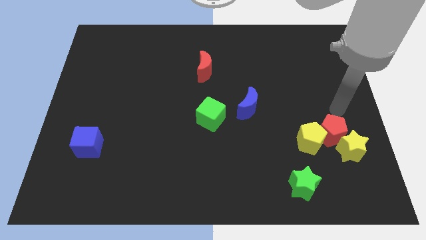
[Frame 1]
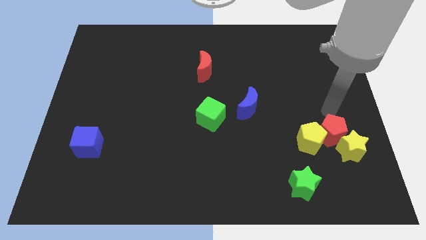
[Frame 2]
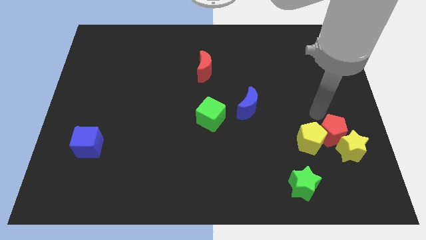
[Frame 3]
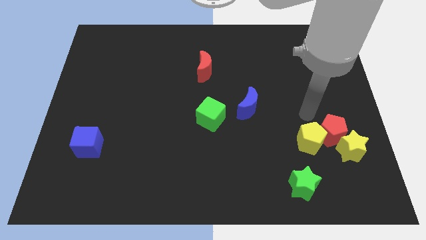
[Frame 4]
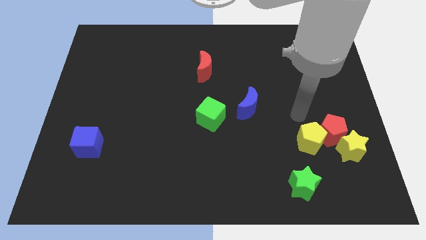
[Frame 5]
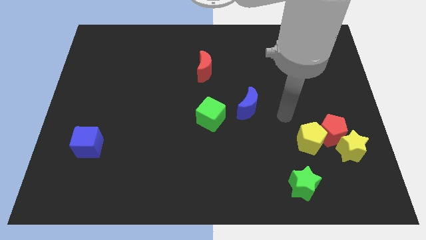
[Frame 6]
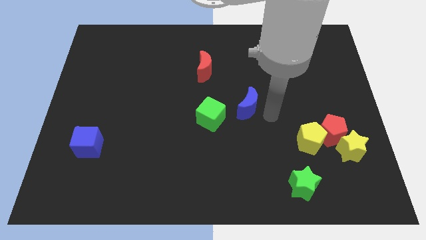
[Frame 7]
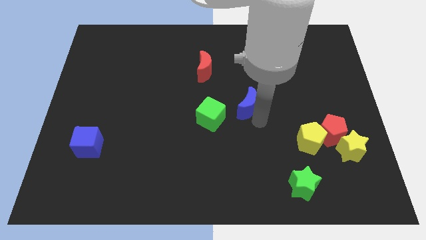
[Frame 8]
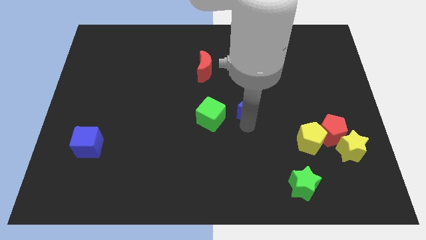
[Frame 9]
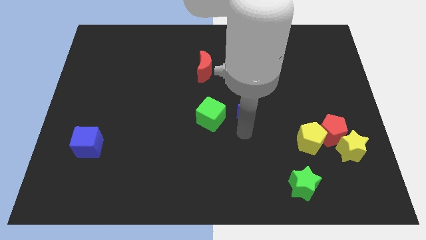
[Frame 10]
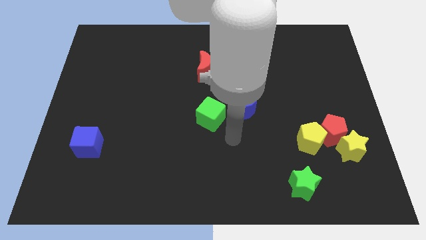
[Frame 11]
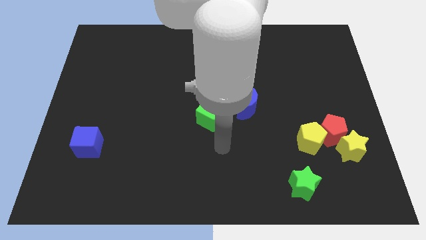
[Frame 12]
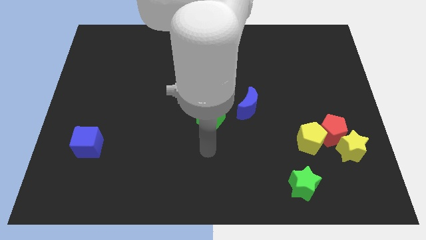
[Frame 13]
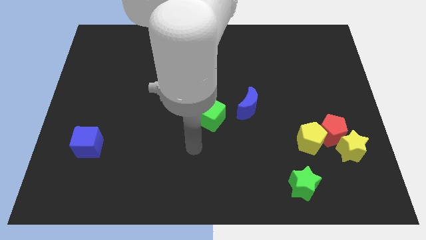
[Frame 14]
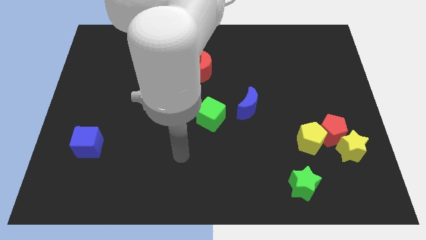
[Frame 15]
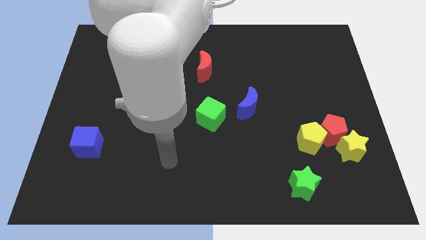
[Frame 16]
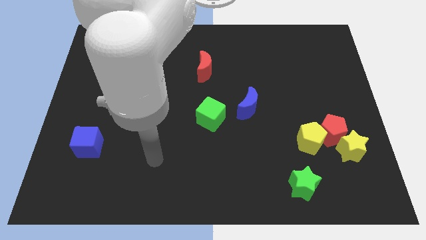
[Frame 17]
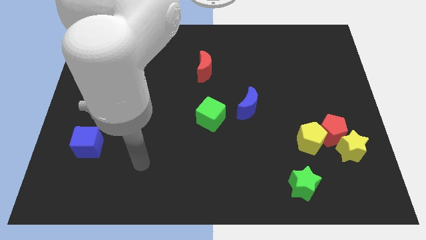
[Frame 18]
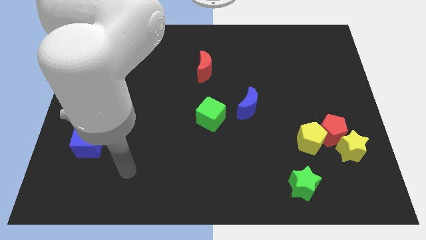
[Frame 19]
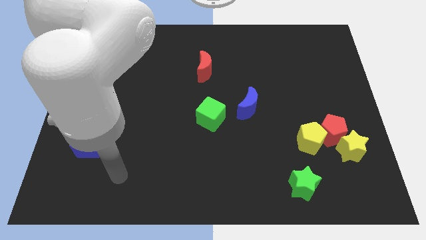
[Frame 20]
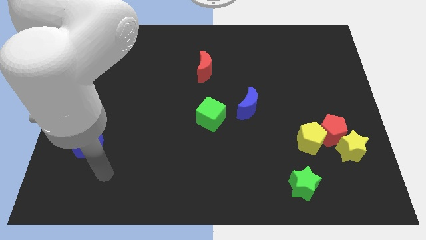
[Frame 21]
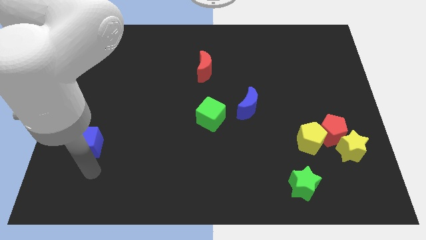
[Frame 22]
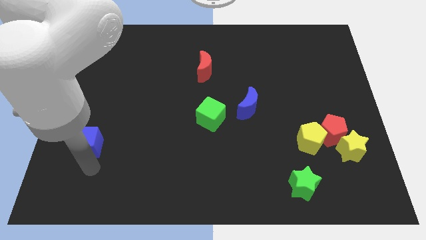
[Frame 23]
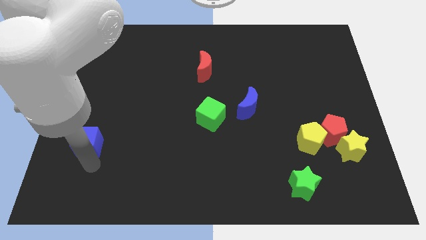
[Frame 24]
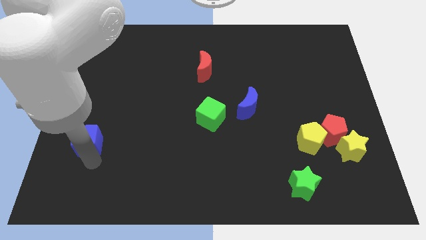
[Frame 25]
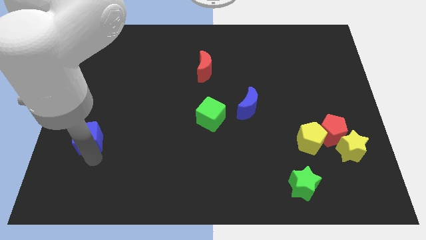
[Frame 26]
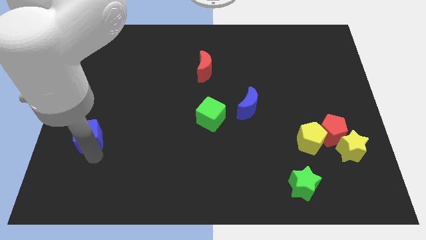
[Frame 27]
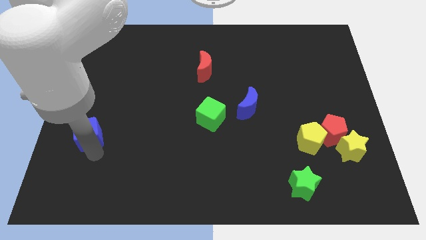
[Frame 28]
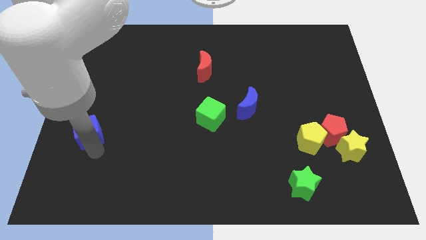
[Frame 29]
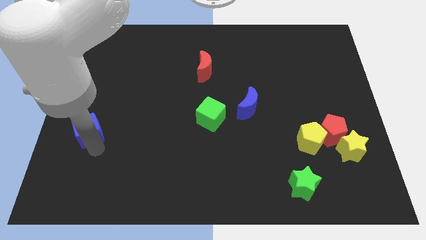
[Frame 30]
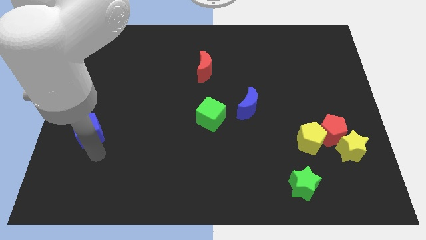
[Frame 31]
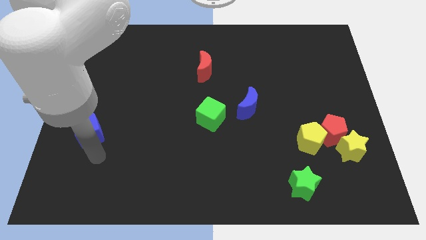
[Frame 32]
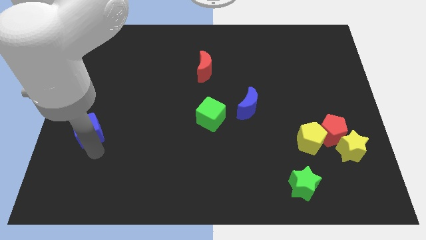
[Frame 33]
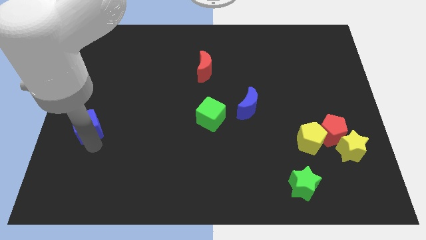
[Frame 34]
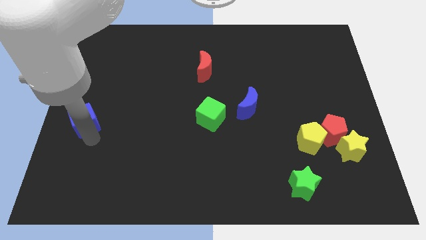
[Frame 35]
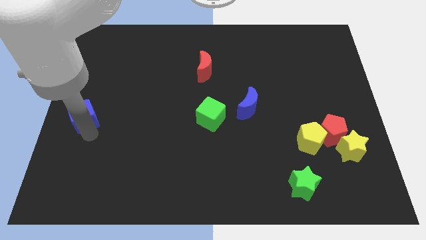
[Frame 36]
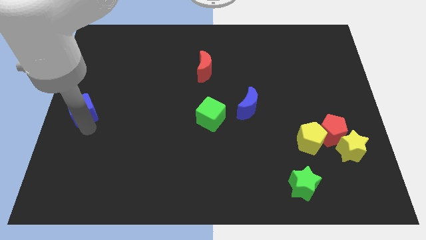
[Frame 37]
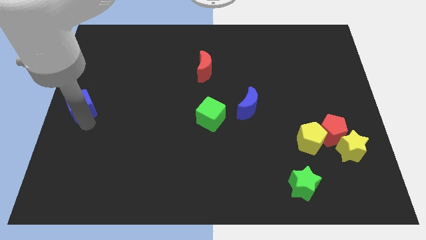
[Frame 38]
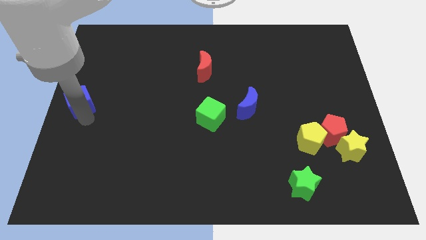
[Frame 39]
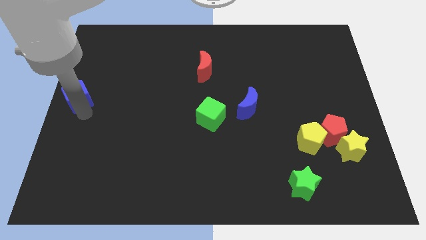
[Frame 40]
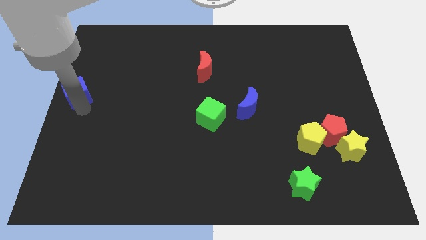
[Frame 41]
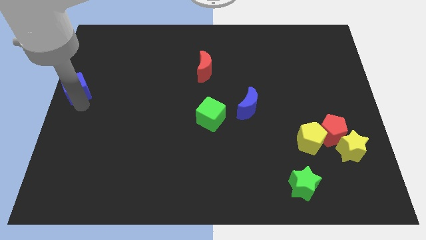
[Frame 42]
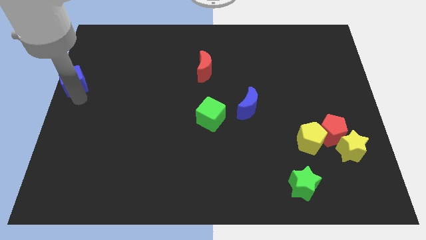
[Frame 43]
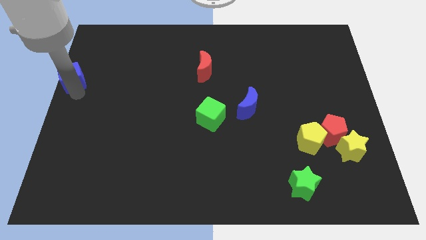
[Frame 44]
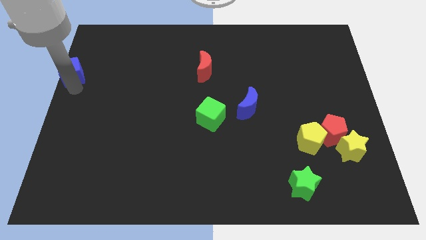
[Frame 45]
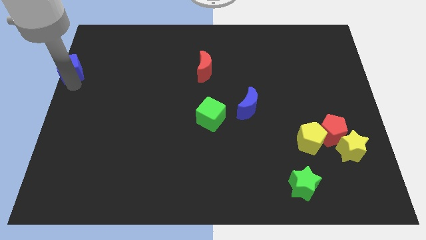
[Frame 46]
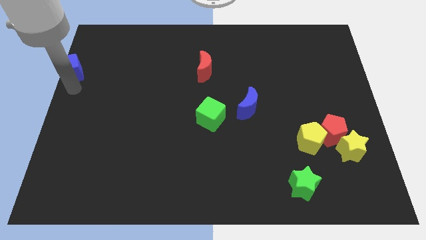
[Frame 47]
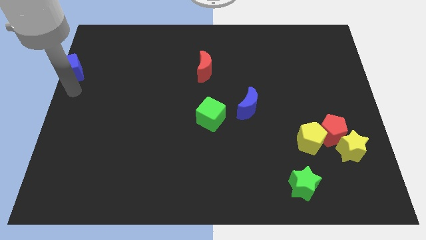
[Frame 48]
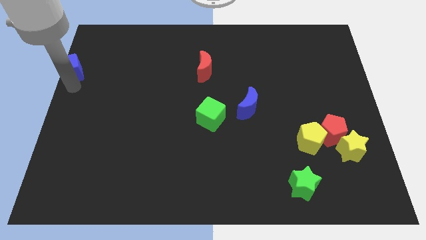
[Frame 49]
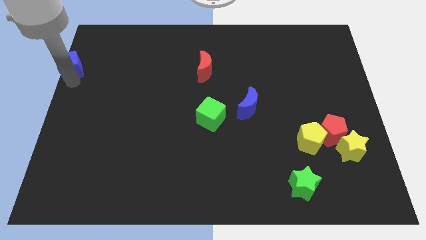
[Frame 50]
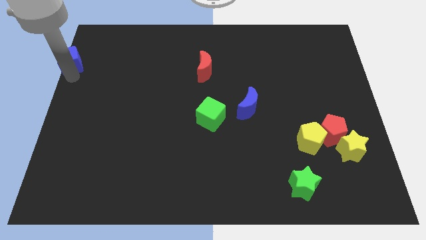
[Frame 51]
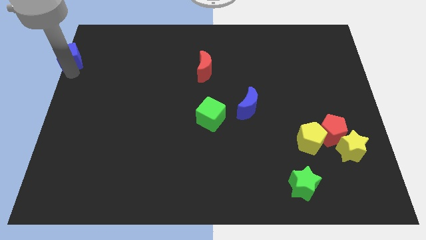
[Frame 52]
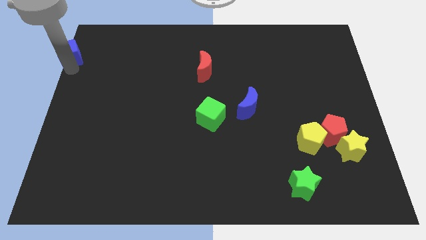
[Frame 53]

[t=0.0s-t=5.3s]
move the blue cube to the top left corner

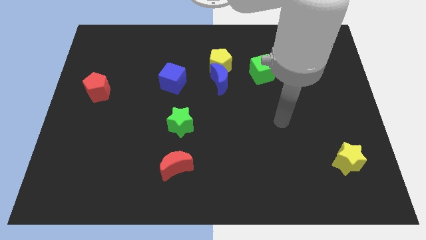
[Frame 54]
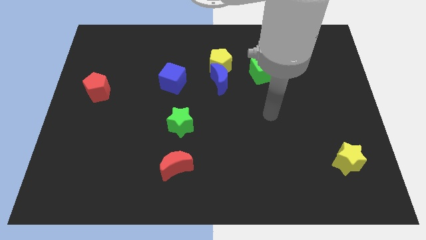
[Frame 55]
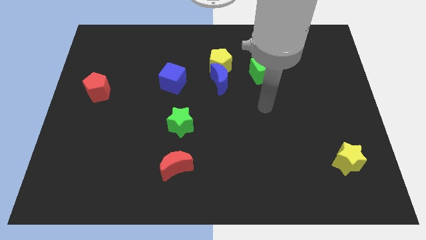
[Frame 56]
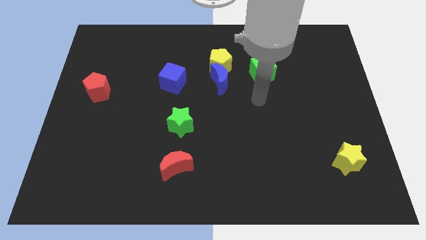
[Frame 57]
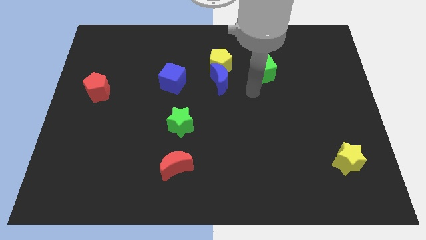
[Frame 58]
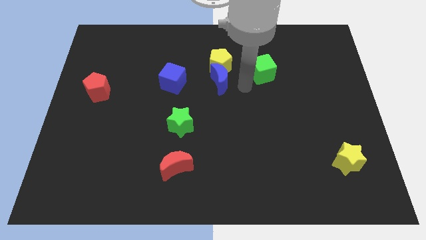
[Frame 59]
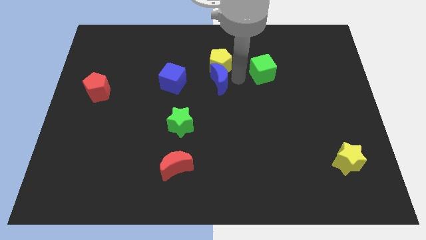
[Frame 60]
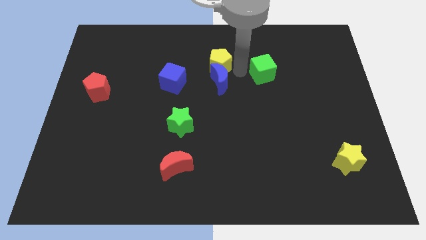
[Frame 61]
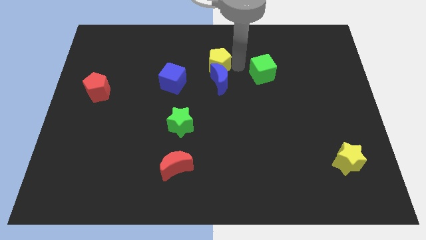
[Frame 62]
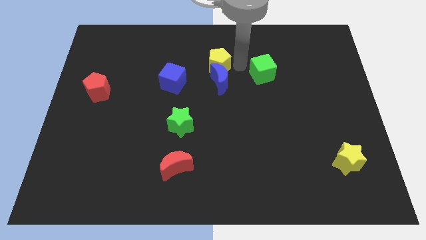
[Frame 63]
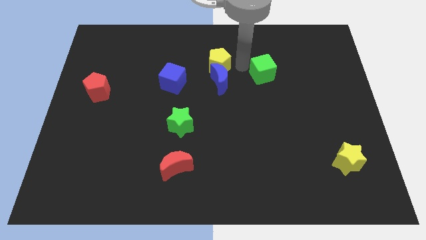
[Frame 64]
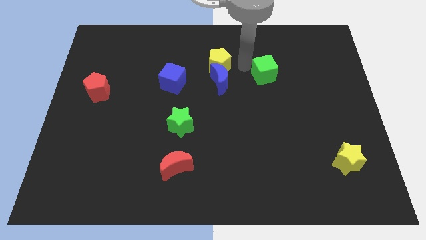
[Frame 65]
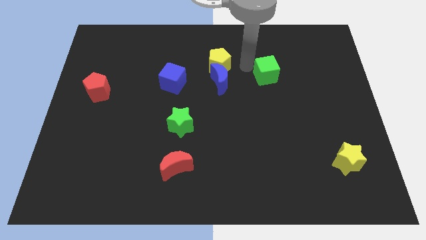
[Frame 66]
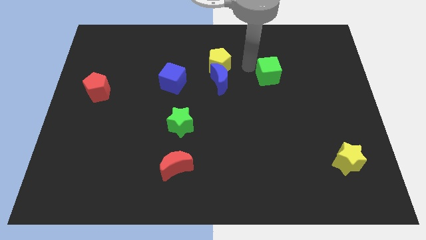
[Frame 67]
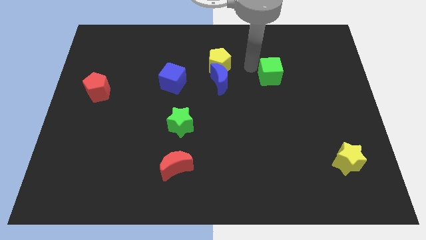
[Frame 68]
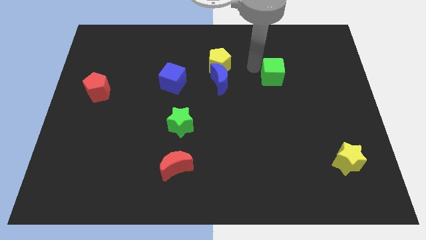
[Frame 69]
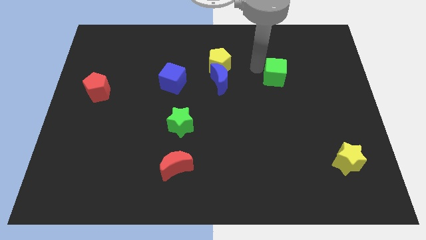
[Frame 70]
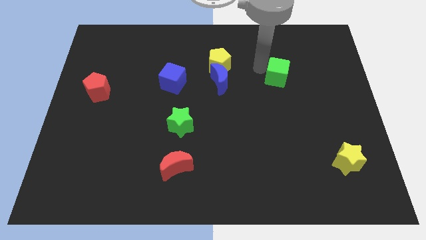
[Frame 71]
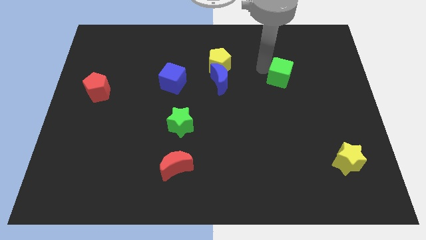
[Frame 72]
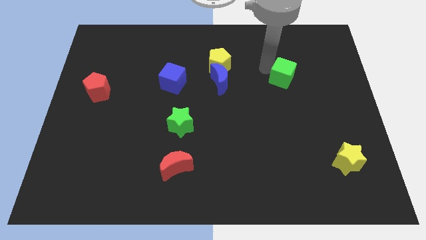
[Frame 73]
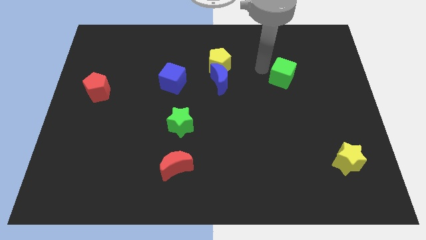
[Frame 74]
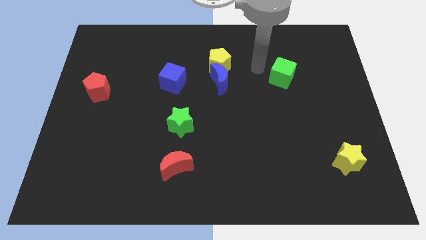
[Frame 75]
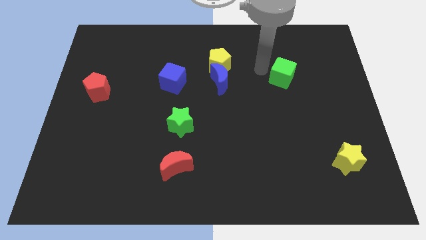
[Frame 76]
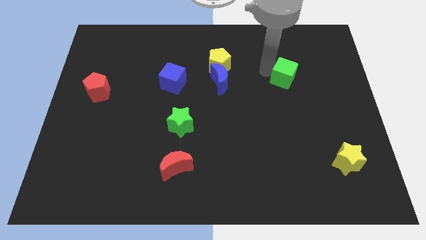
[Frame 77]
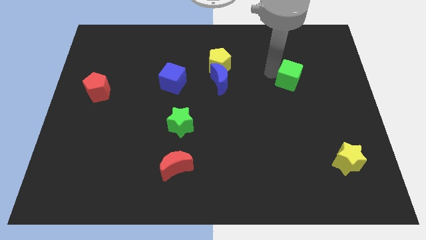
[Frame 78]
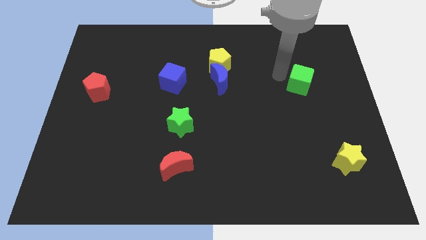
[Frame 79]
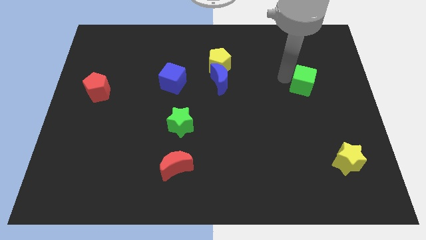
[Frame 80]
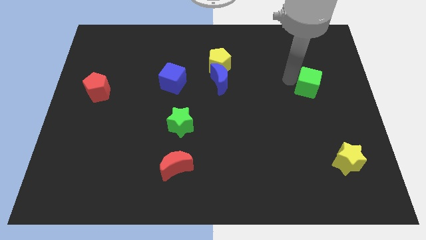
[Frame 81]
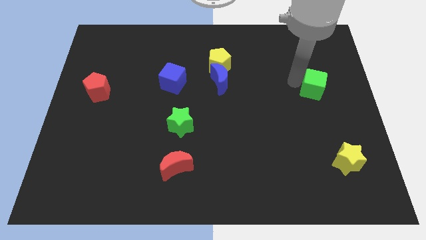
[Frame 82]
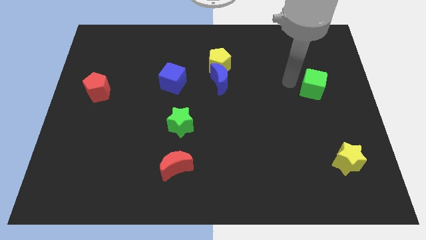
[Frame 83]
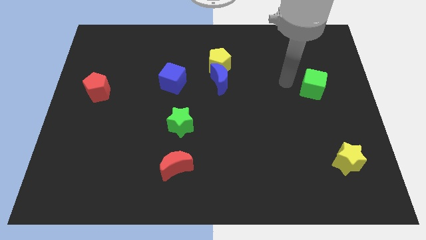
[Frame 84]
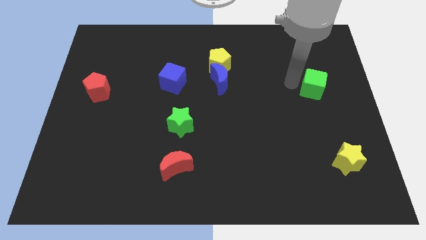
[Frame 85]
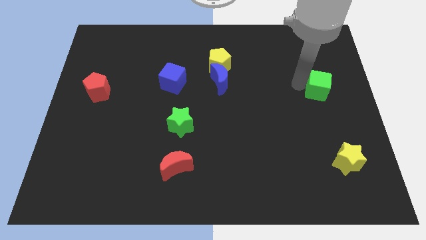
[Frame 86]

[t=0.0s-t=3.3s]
slide the green cube to the right side
